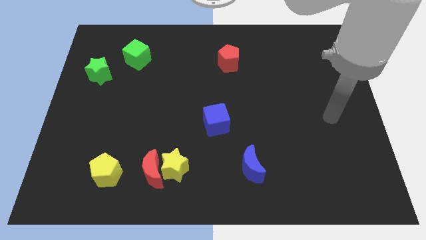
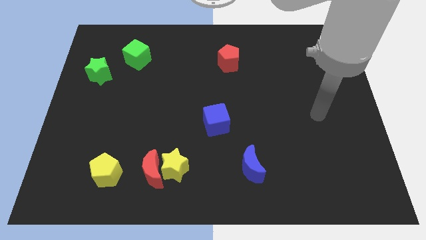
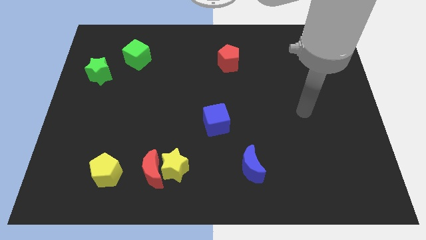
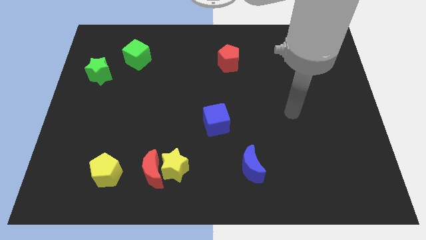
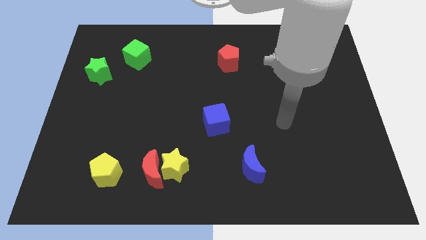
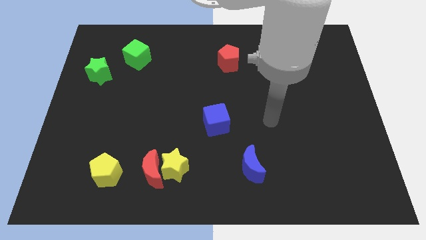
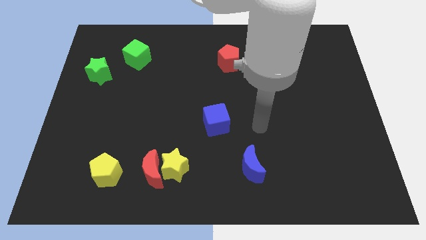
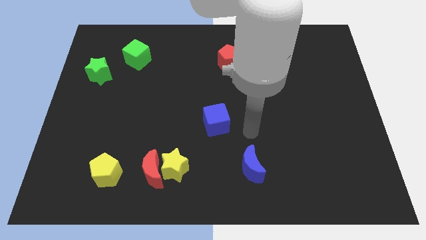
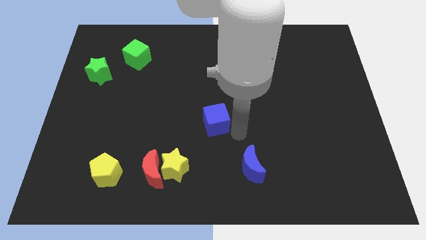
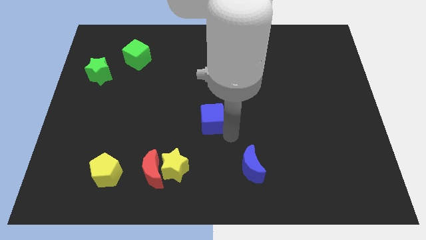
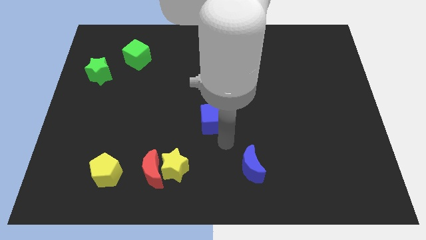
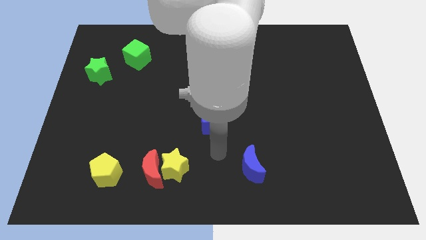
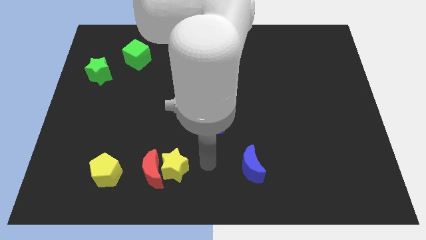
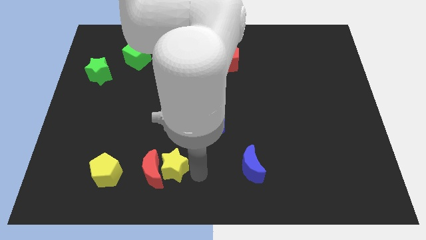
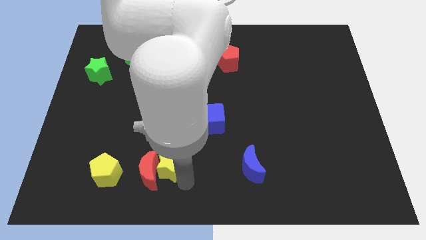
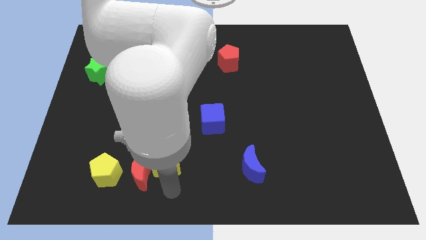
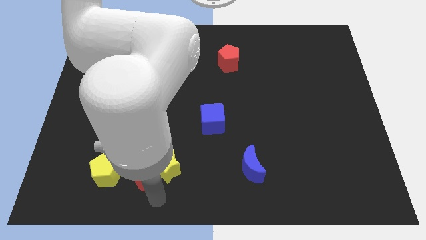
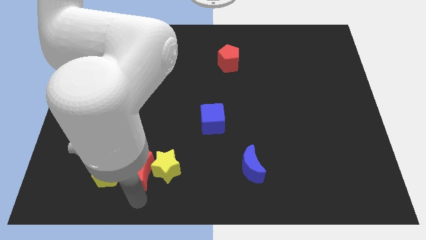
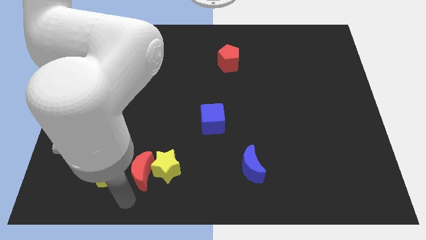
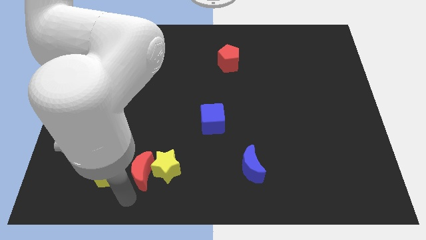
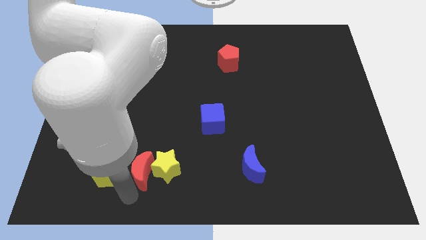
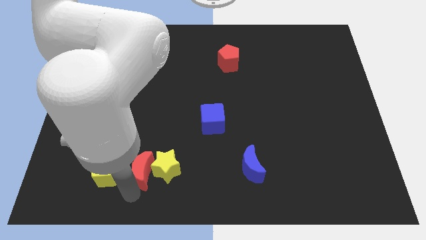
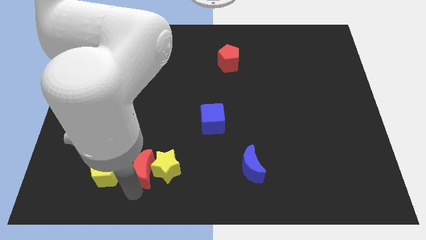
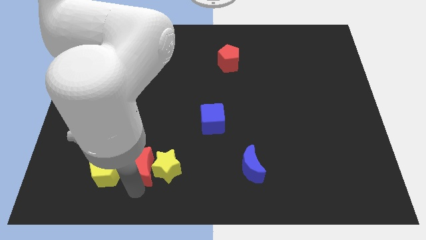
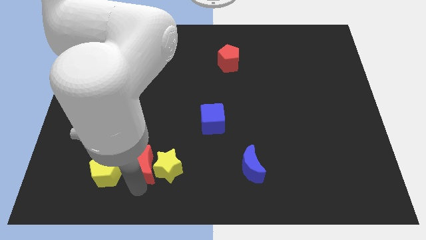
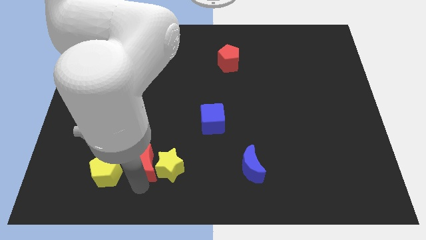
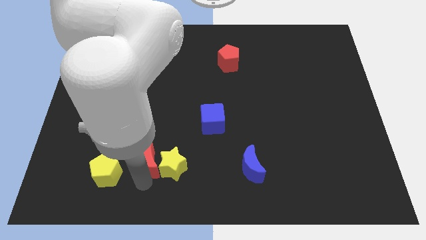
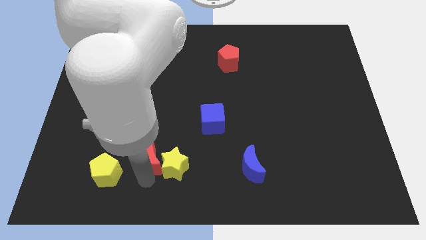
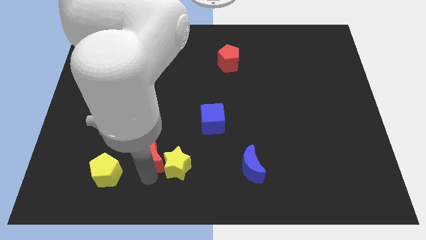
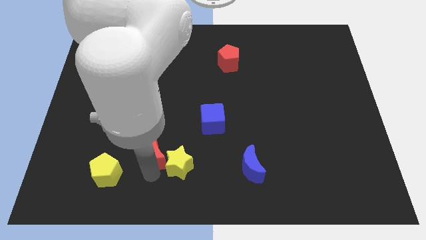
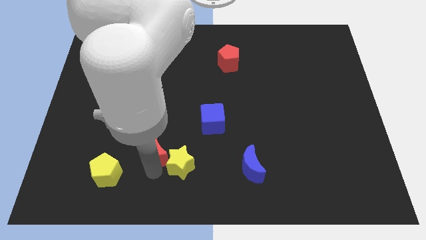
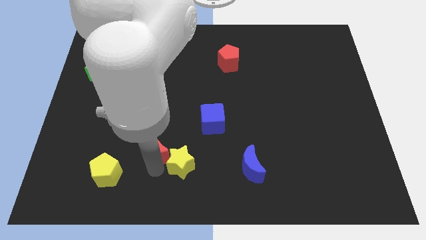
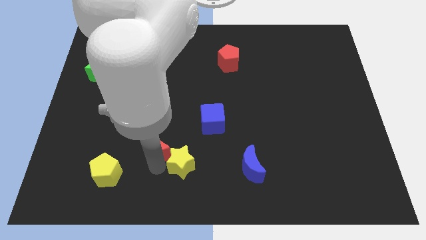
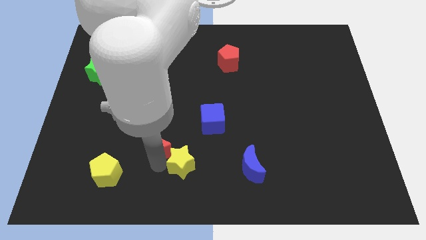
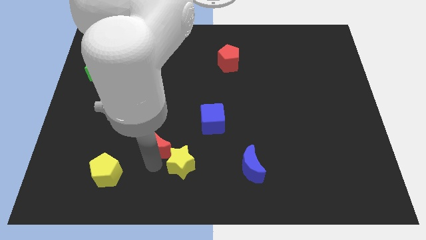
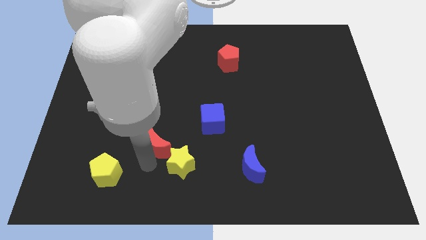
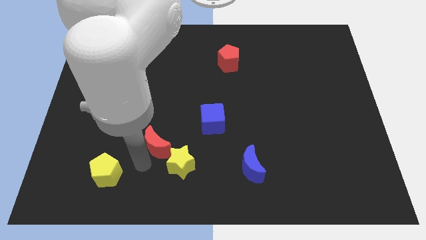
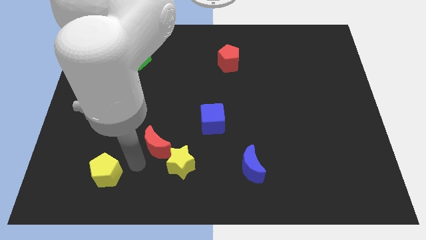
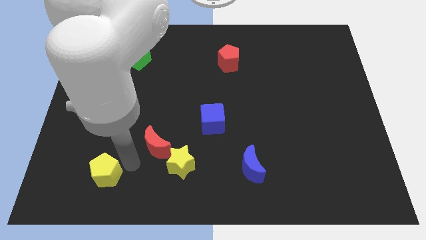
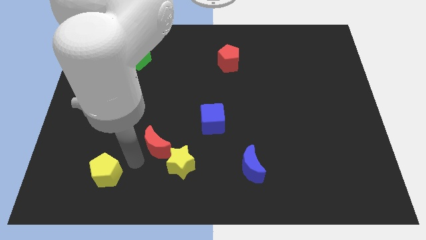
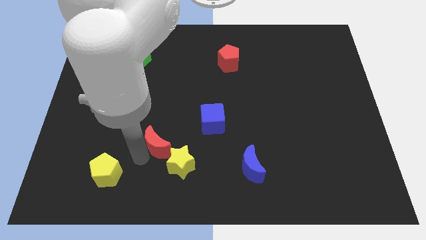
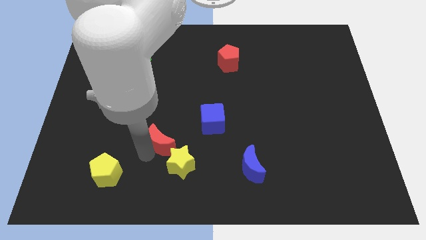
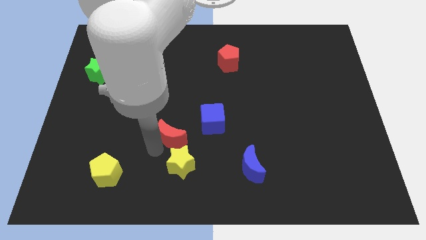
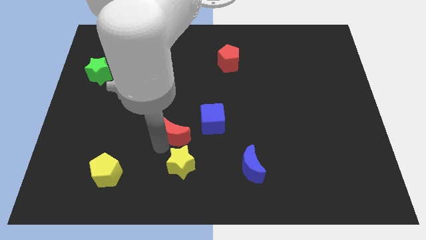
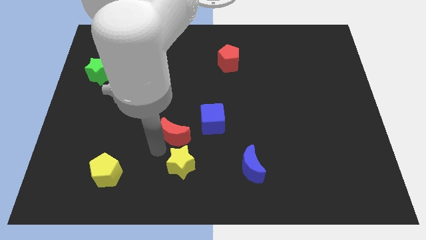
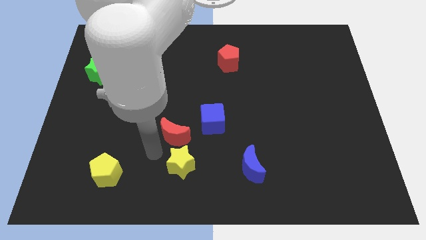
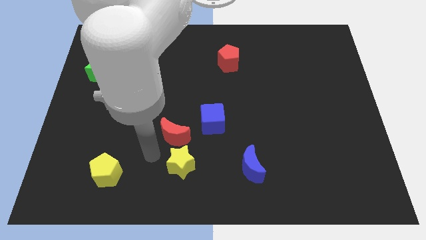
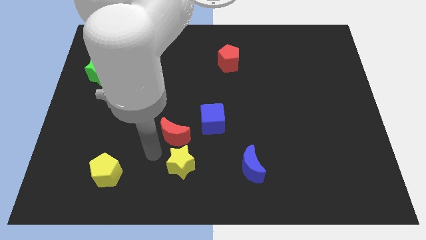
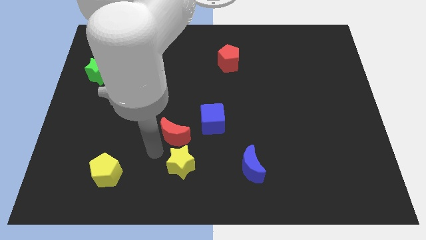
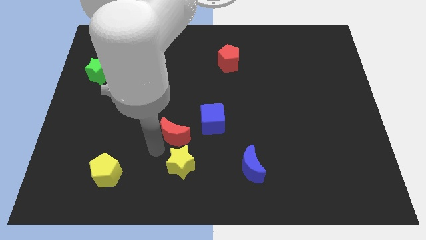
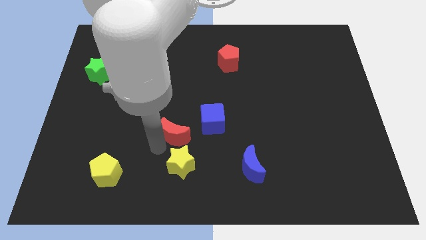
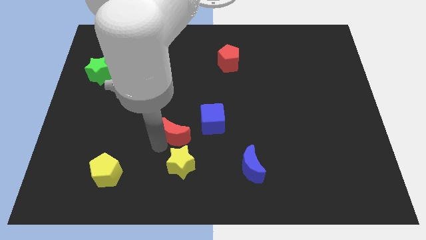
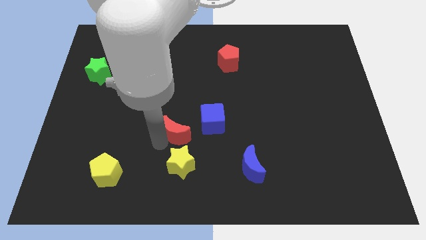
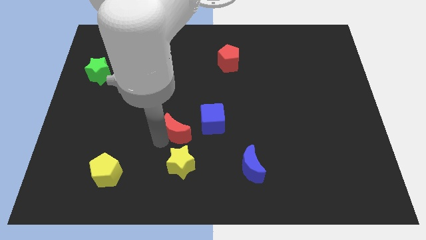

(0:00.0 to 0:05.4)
move the red moon to the middle

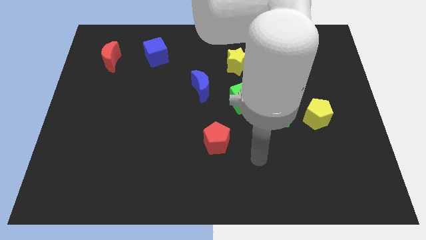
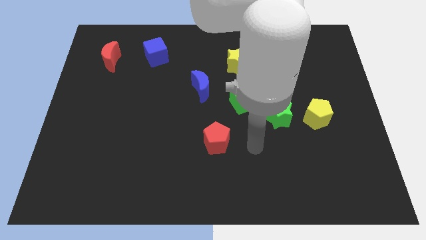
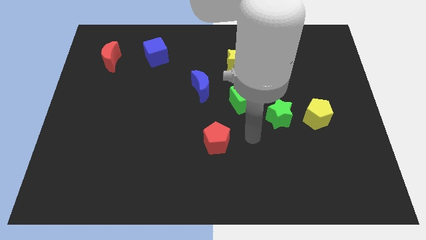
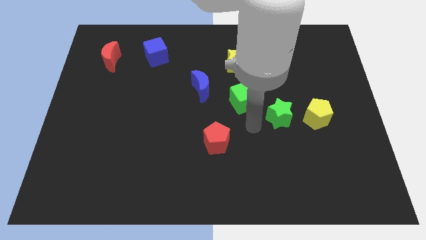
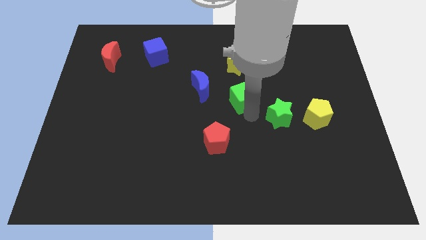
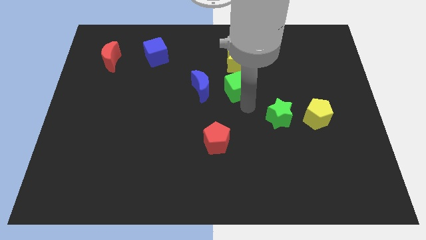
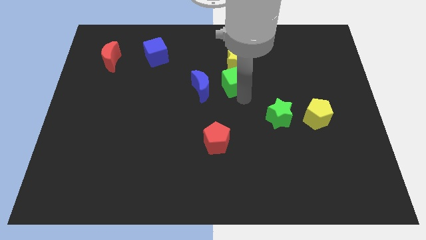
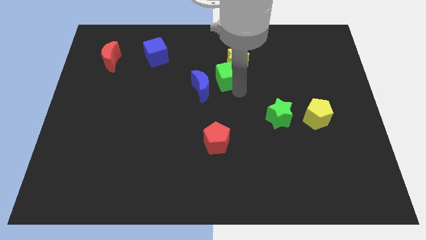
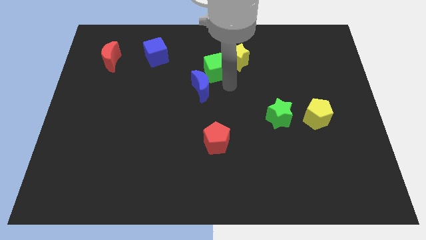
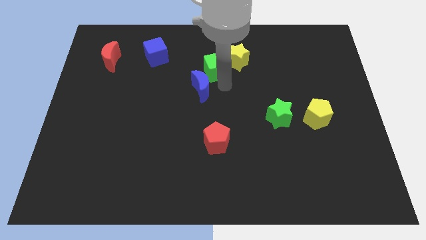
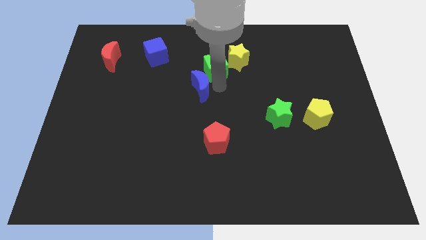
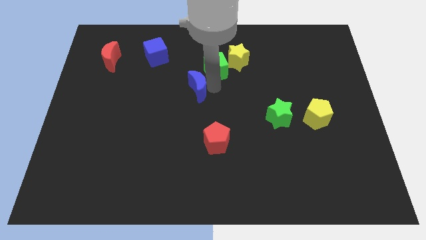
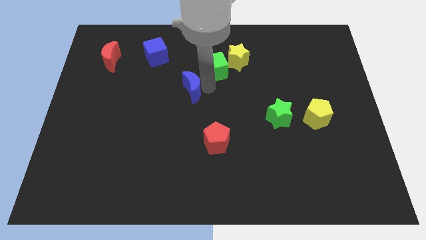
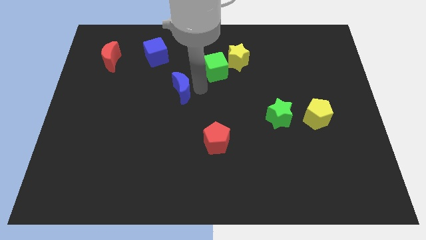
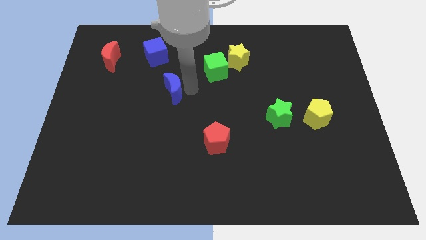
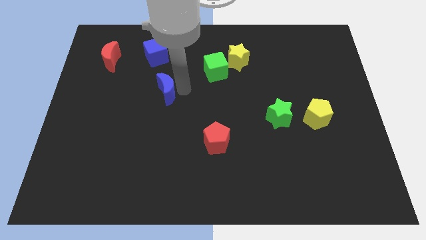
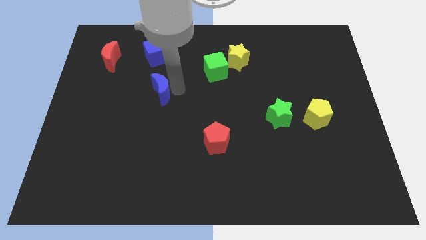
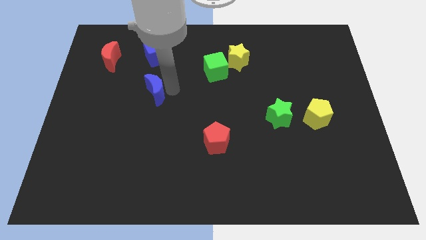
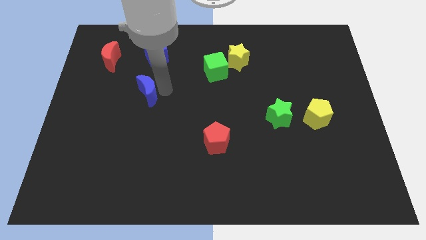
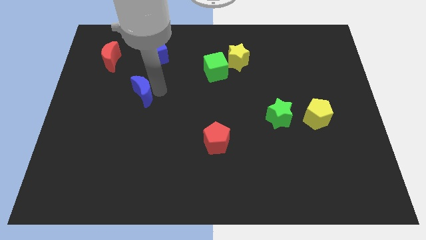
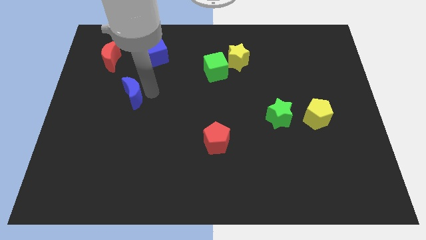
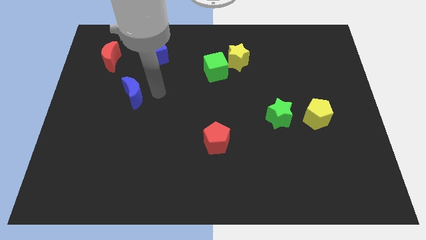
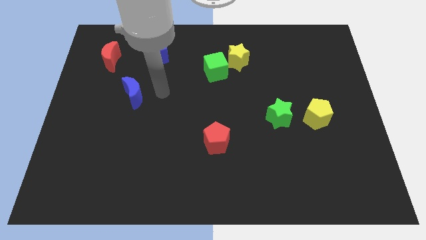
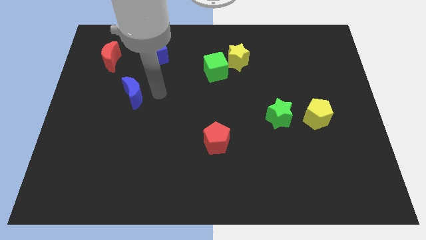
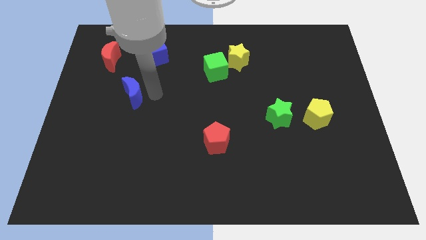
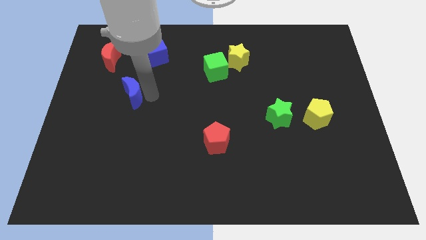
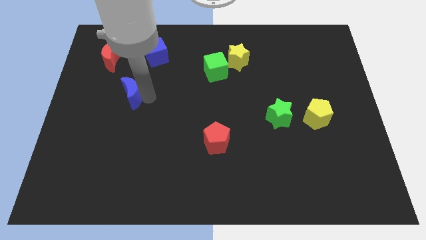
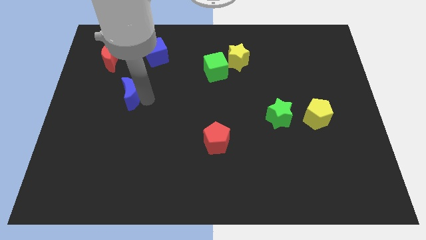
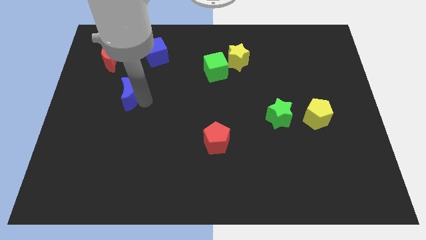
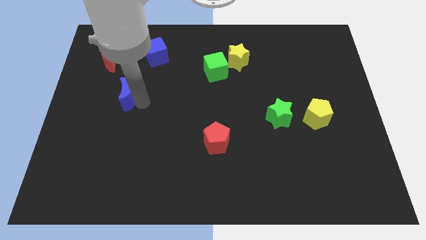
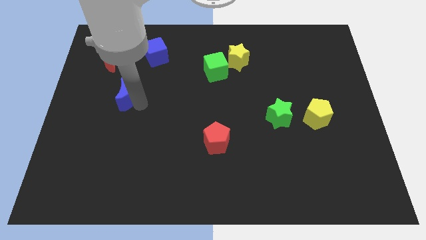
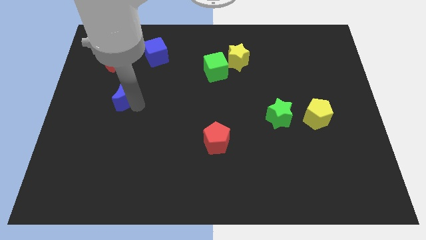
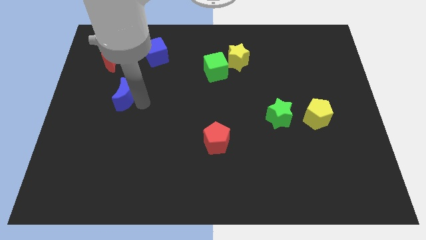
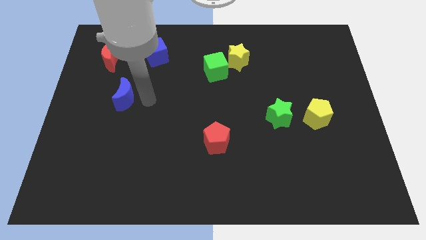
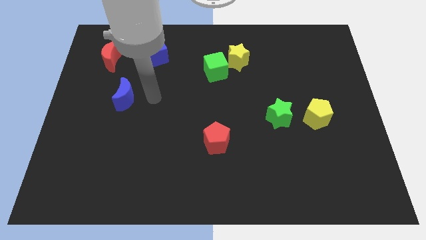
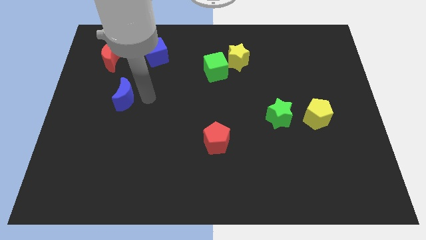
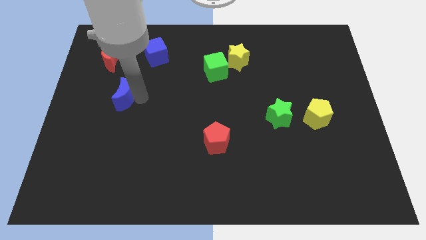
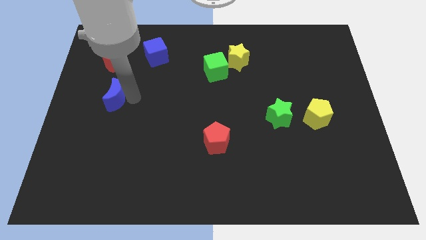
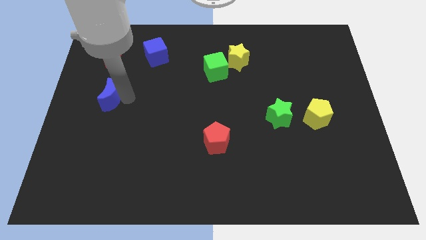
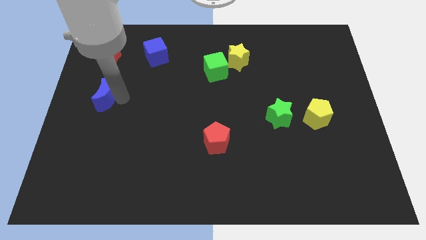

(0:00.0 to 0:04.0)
push the blue moon to the left side
